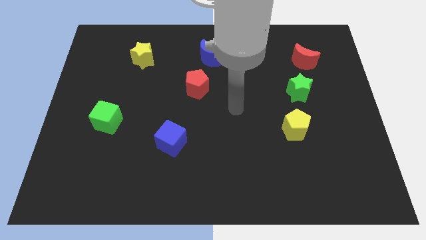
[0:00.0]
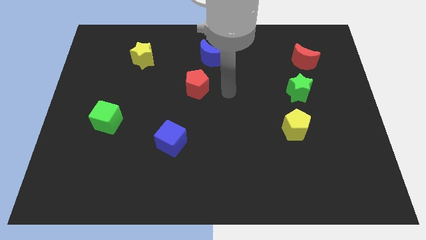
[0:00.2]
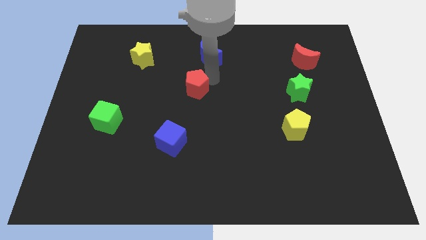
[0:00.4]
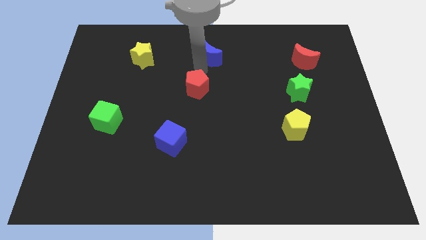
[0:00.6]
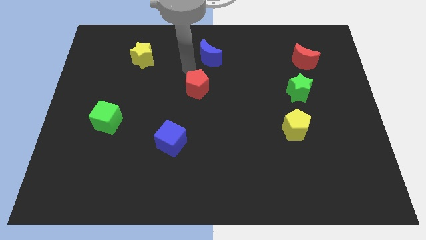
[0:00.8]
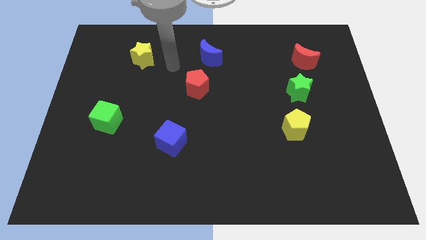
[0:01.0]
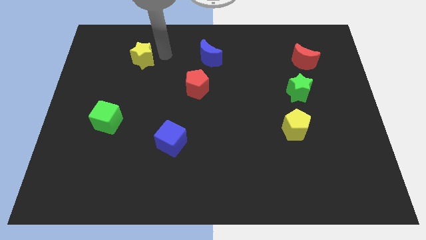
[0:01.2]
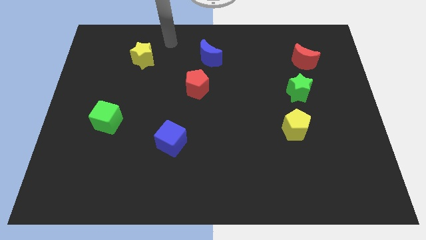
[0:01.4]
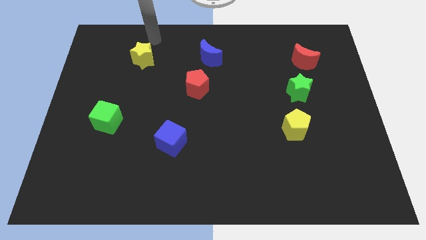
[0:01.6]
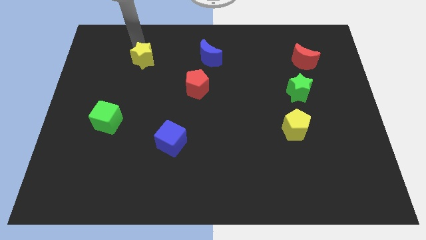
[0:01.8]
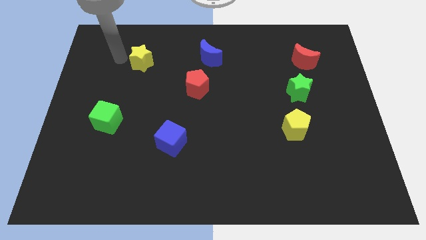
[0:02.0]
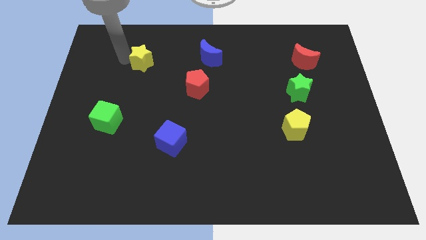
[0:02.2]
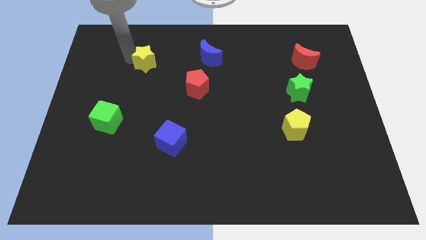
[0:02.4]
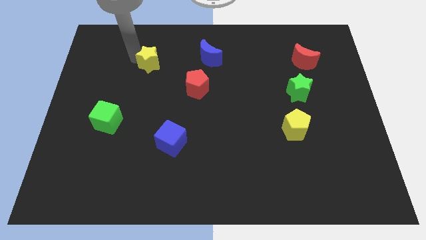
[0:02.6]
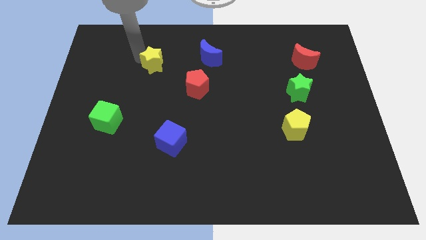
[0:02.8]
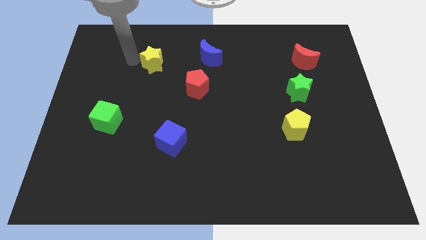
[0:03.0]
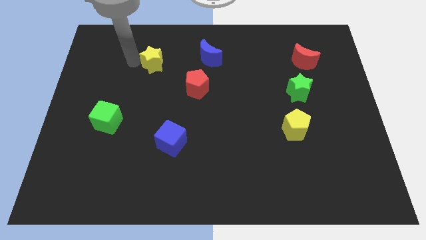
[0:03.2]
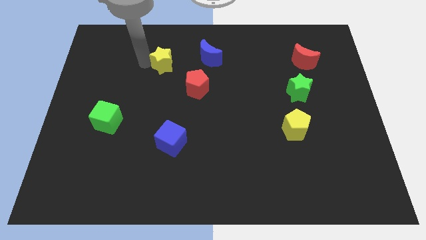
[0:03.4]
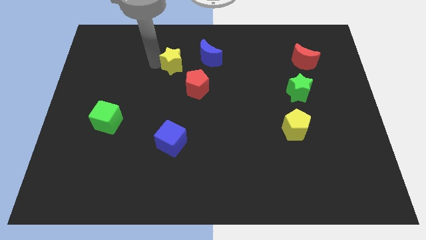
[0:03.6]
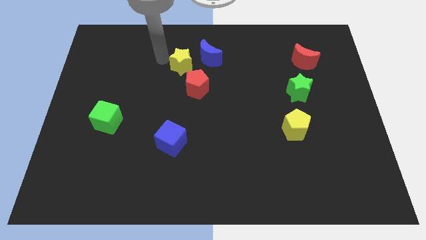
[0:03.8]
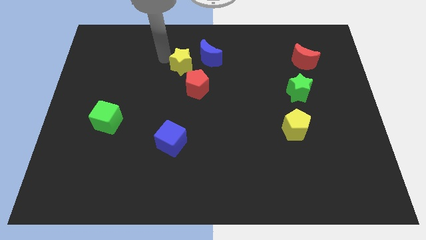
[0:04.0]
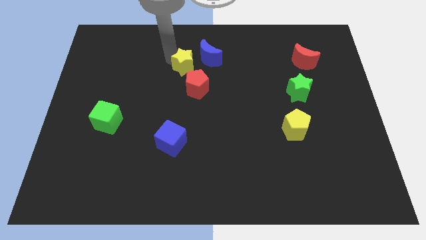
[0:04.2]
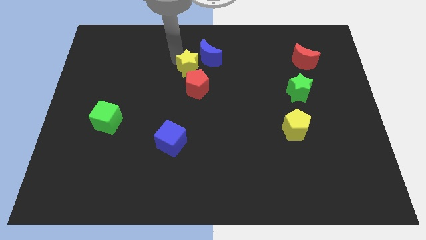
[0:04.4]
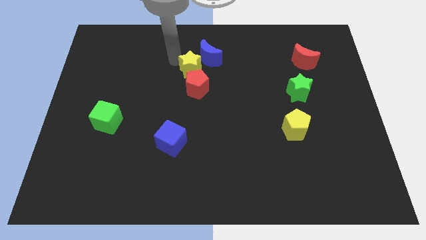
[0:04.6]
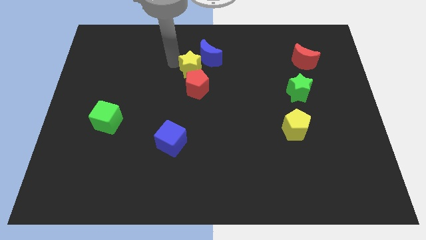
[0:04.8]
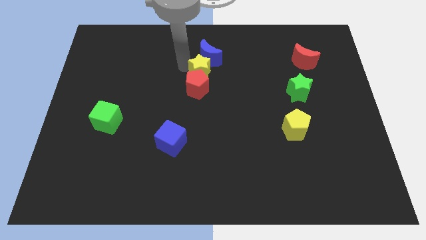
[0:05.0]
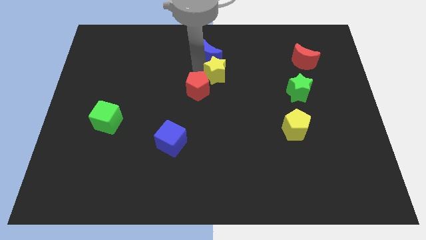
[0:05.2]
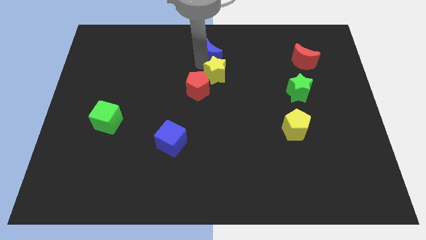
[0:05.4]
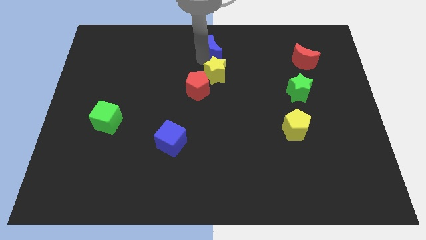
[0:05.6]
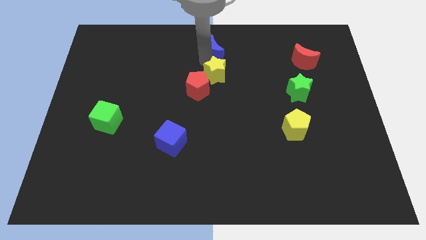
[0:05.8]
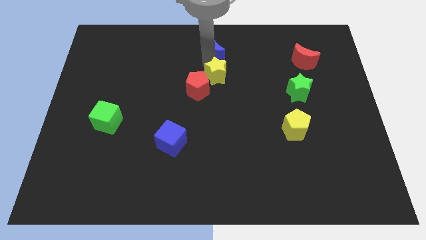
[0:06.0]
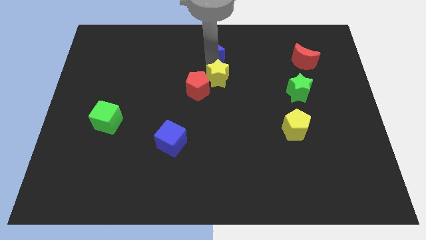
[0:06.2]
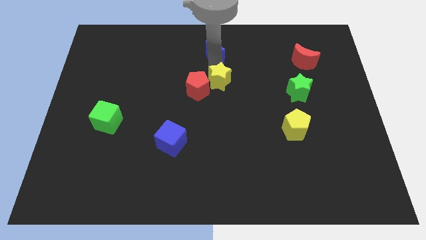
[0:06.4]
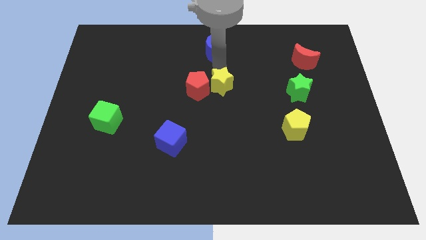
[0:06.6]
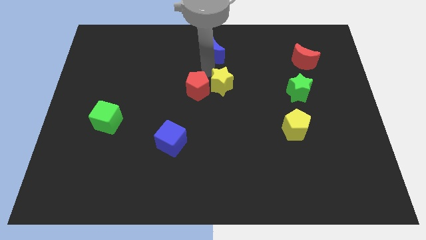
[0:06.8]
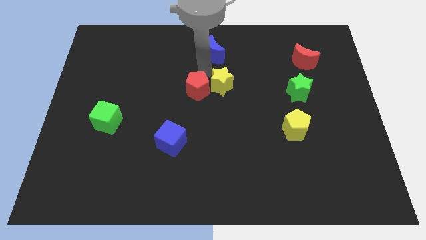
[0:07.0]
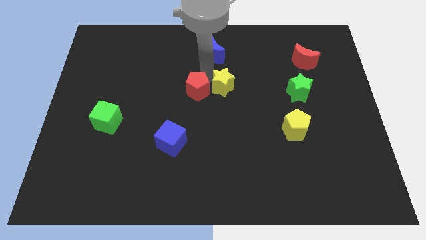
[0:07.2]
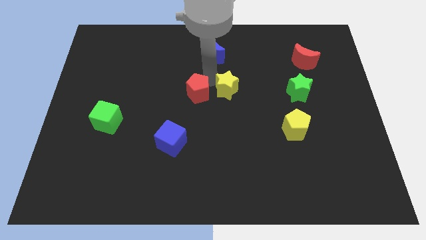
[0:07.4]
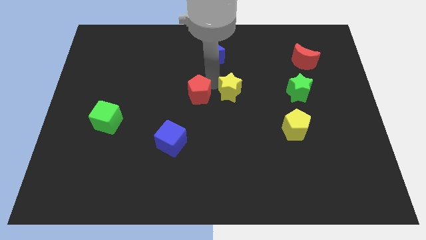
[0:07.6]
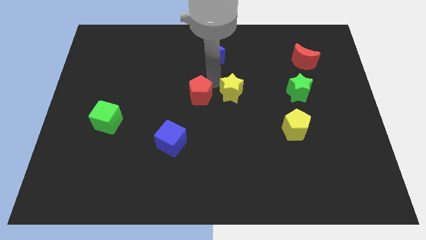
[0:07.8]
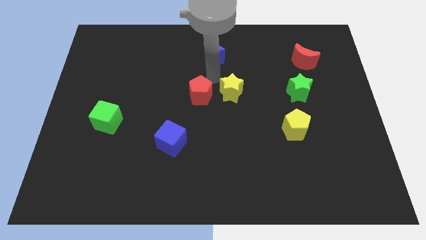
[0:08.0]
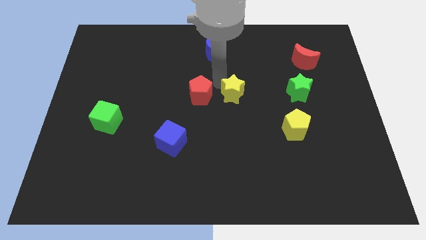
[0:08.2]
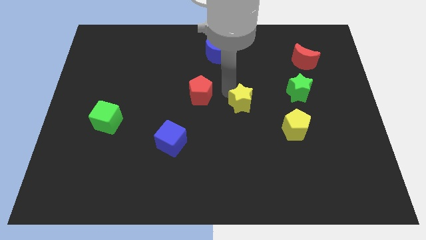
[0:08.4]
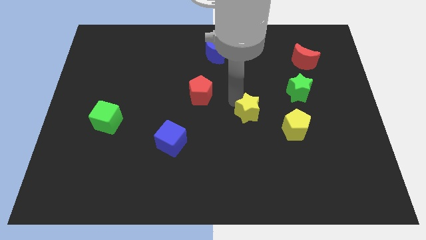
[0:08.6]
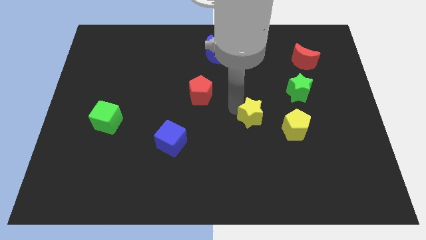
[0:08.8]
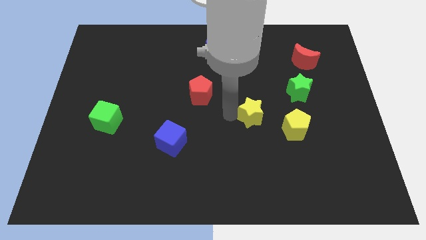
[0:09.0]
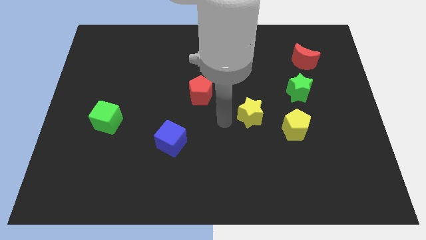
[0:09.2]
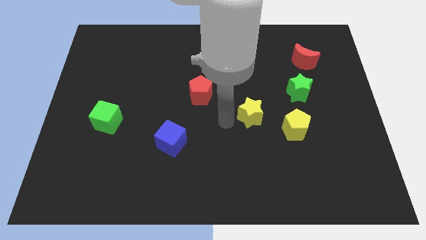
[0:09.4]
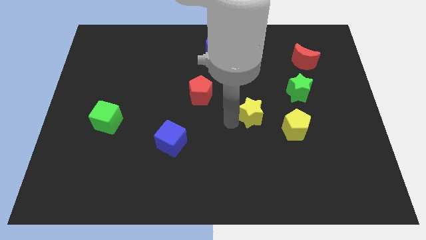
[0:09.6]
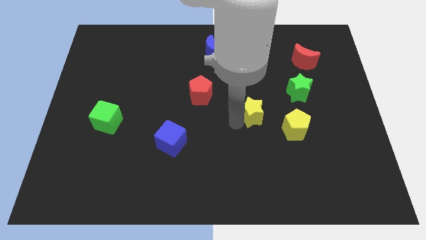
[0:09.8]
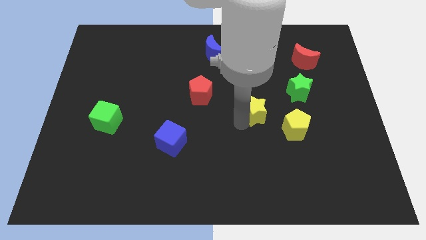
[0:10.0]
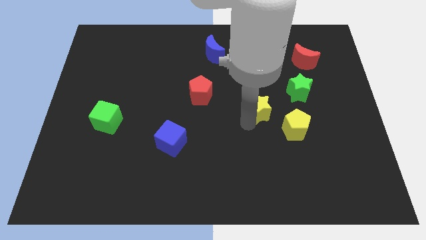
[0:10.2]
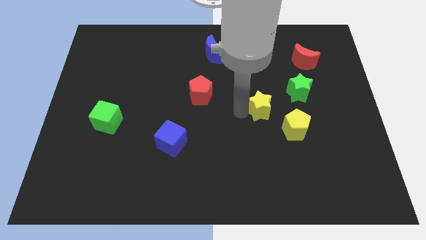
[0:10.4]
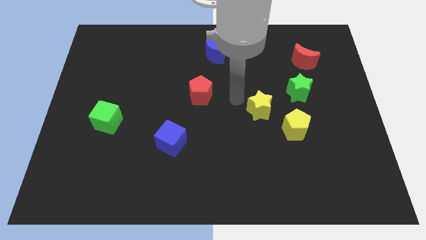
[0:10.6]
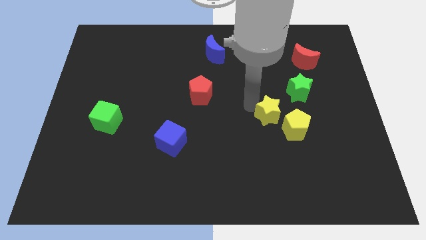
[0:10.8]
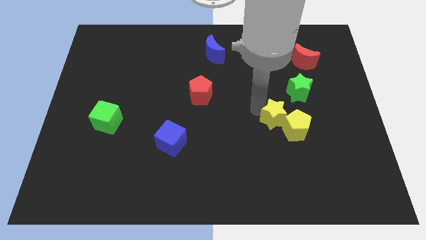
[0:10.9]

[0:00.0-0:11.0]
push the yellow star towards the yellow pentagon

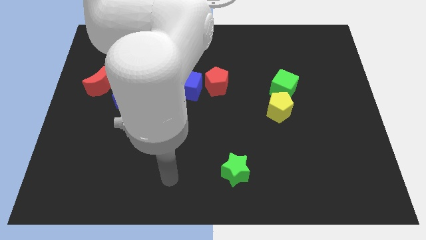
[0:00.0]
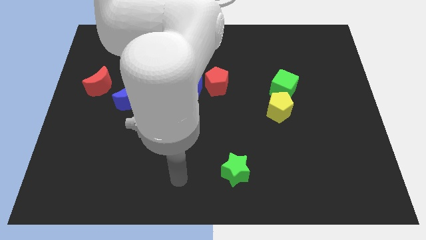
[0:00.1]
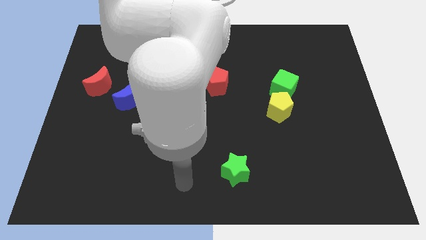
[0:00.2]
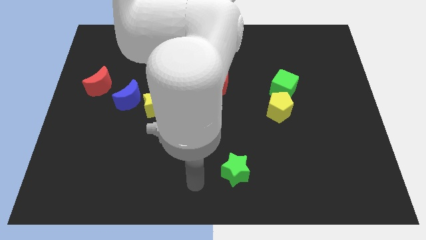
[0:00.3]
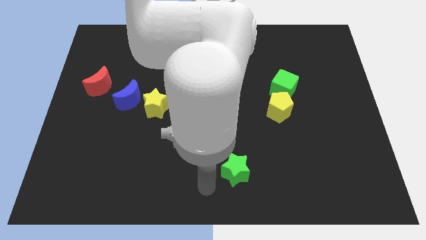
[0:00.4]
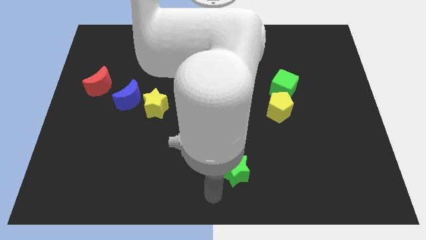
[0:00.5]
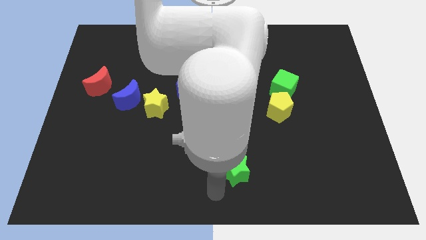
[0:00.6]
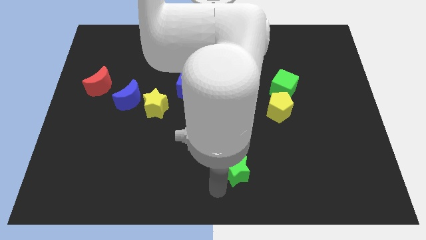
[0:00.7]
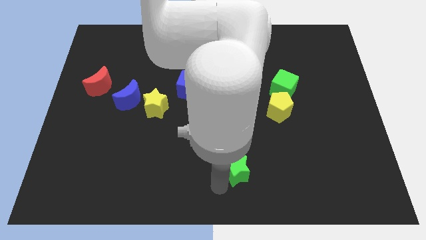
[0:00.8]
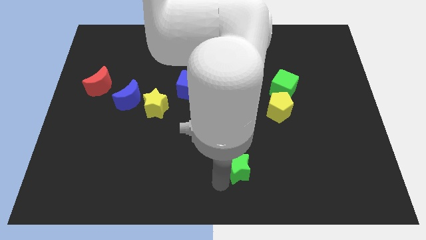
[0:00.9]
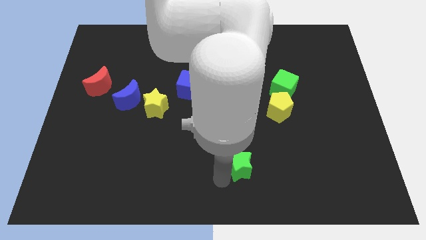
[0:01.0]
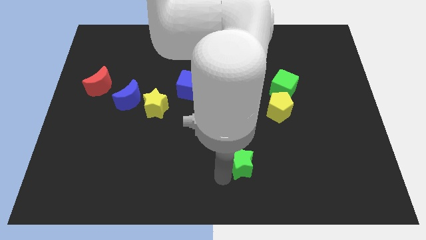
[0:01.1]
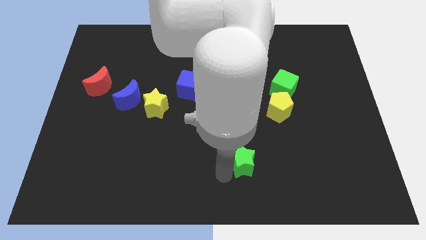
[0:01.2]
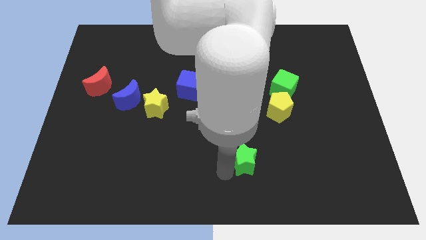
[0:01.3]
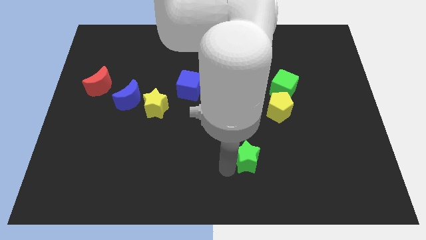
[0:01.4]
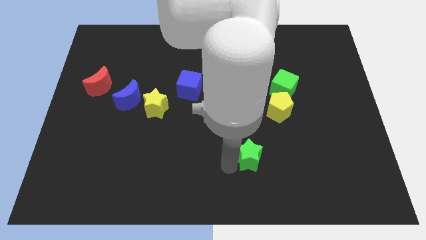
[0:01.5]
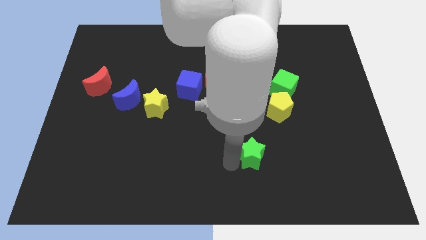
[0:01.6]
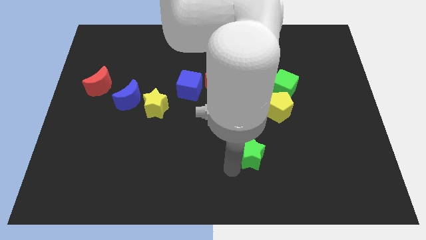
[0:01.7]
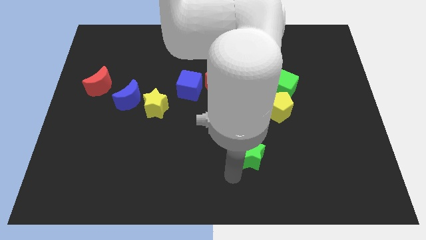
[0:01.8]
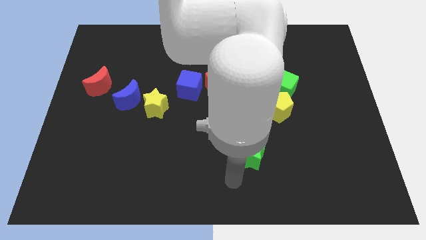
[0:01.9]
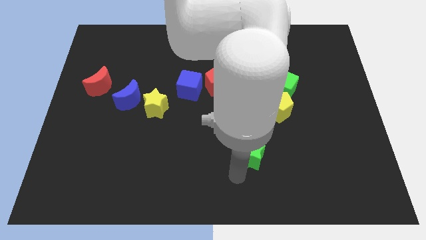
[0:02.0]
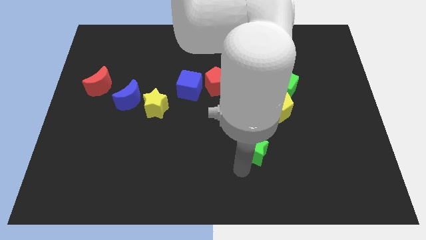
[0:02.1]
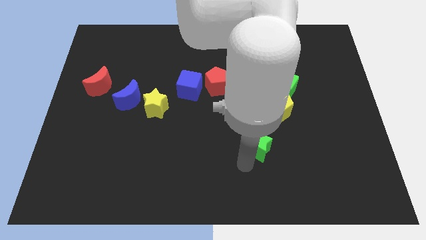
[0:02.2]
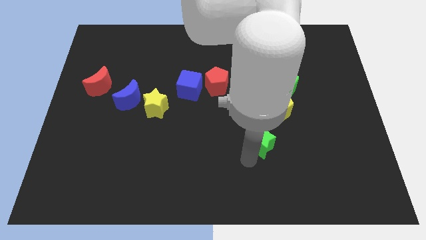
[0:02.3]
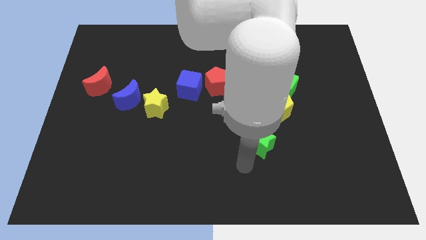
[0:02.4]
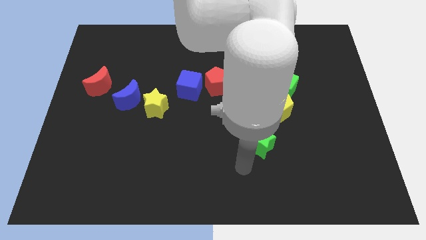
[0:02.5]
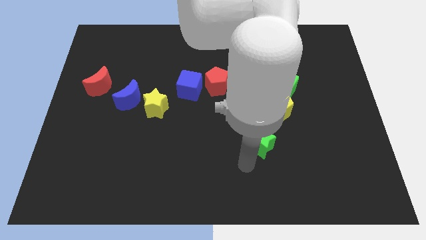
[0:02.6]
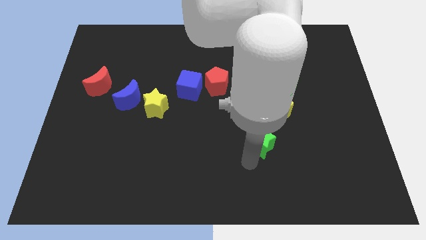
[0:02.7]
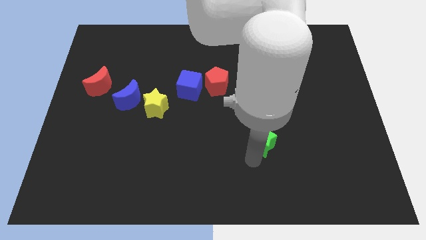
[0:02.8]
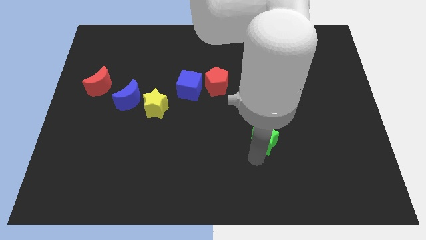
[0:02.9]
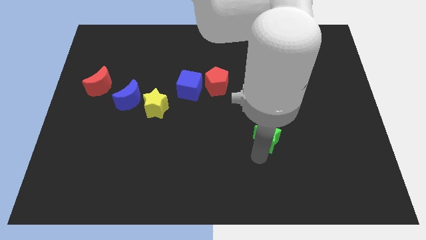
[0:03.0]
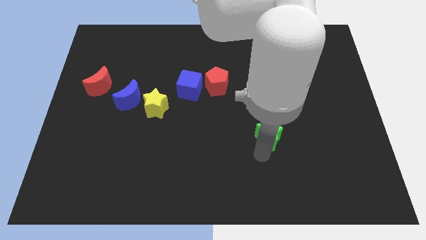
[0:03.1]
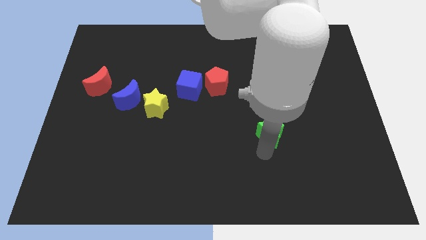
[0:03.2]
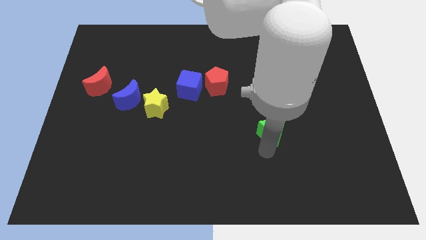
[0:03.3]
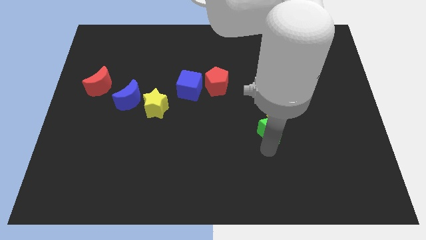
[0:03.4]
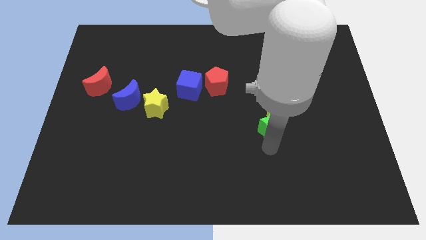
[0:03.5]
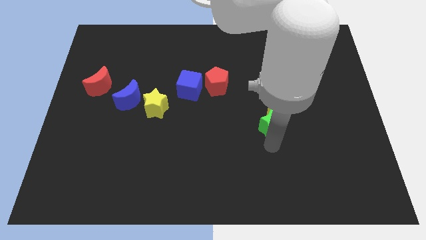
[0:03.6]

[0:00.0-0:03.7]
push the green star to the yellow pentagon
